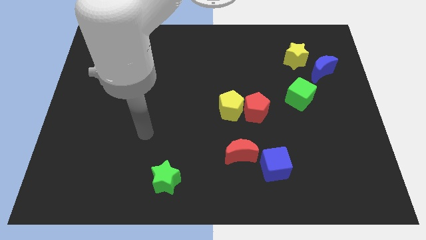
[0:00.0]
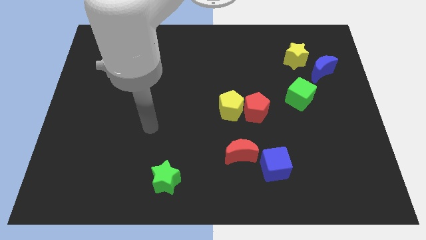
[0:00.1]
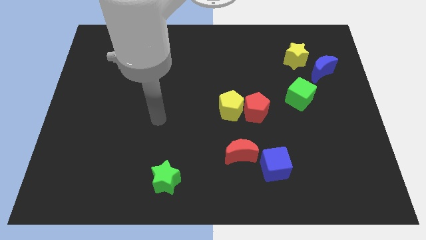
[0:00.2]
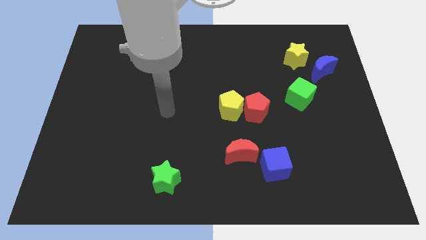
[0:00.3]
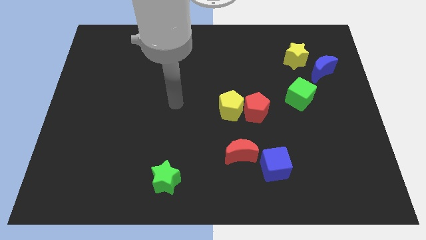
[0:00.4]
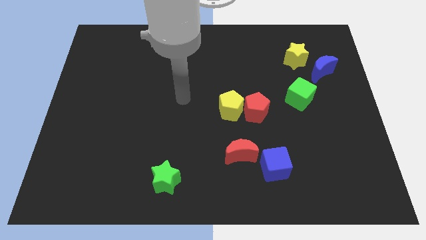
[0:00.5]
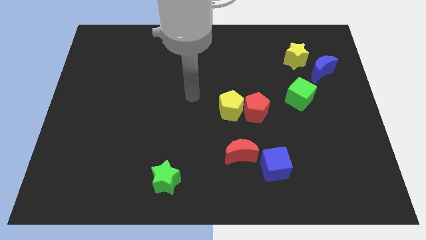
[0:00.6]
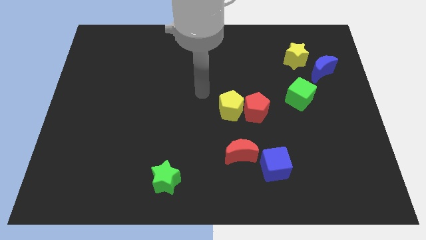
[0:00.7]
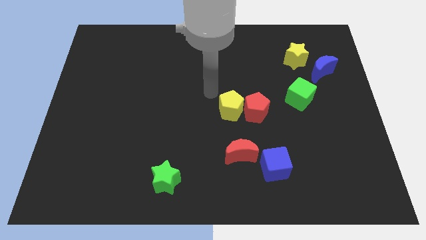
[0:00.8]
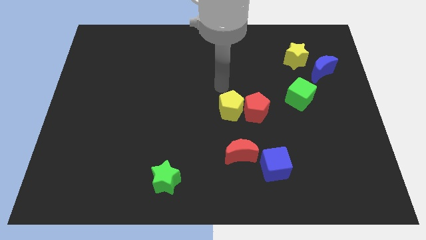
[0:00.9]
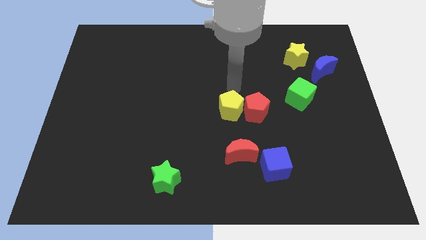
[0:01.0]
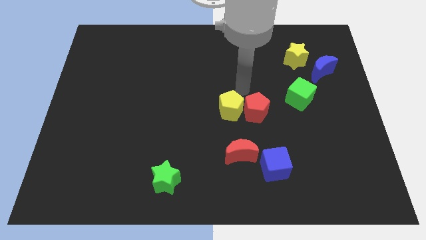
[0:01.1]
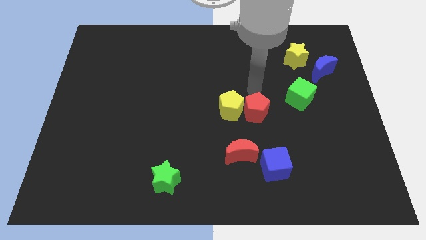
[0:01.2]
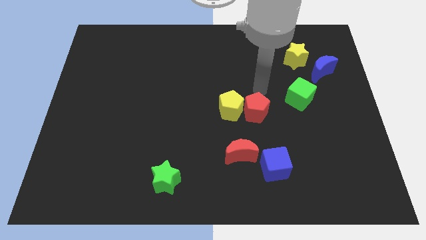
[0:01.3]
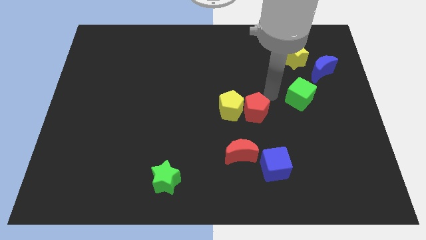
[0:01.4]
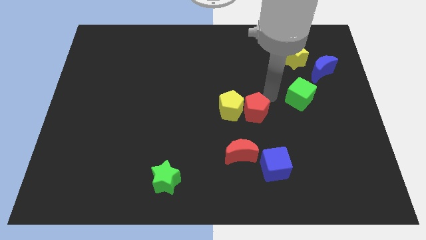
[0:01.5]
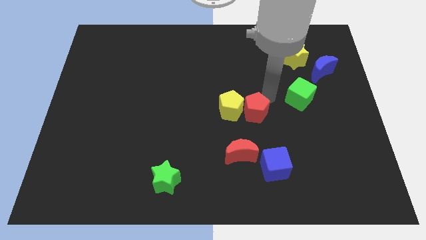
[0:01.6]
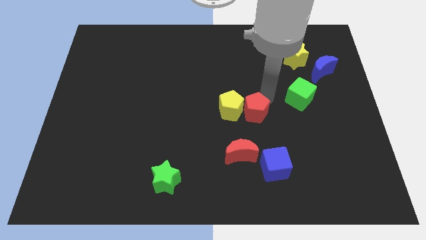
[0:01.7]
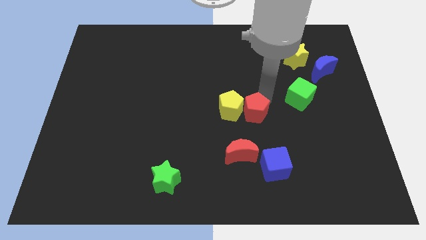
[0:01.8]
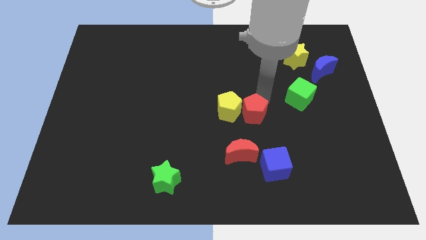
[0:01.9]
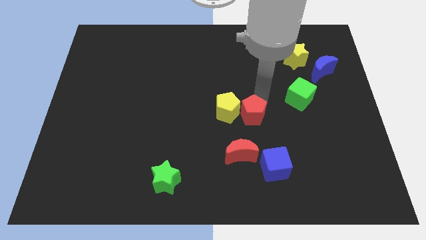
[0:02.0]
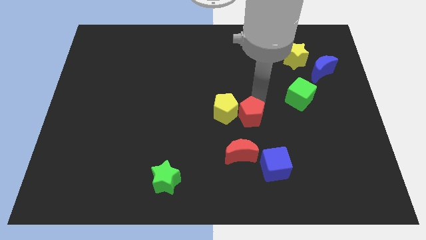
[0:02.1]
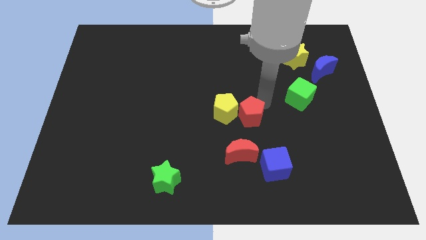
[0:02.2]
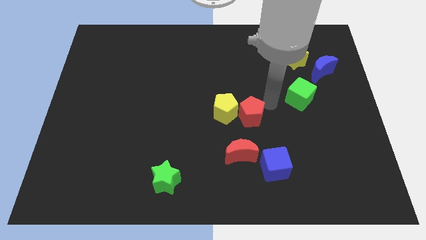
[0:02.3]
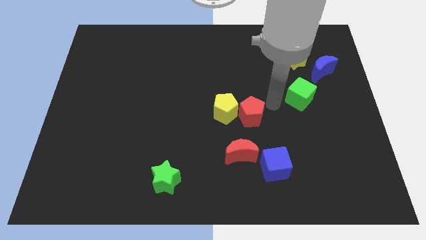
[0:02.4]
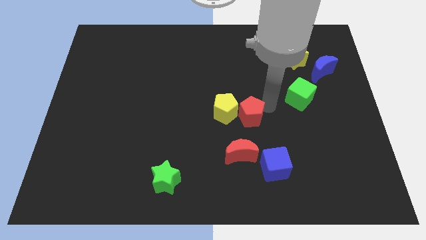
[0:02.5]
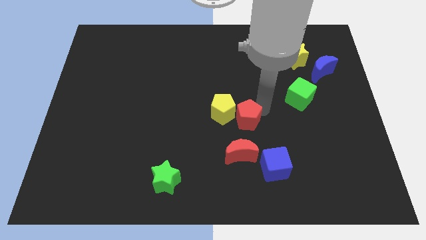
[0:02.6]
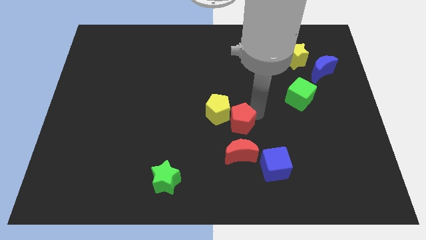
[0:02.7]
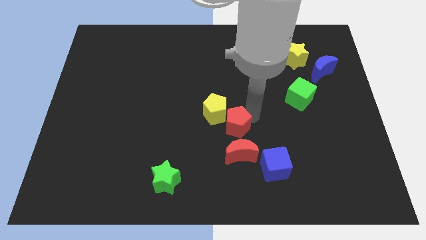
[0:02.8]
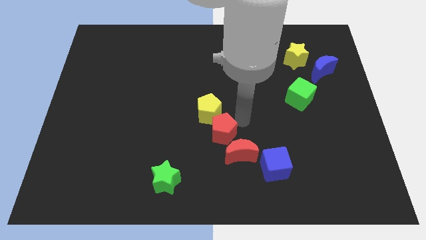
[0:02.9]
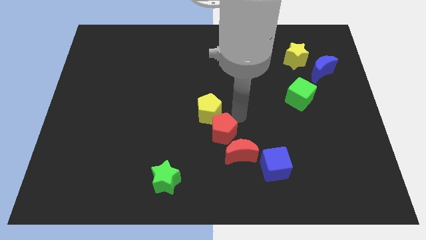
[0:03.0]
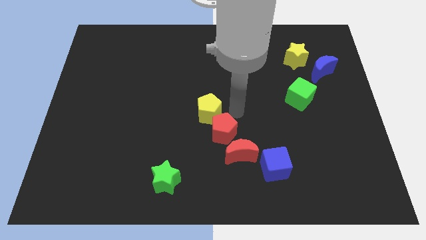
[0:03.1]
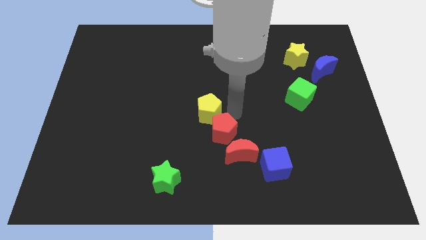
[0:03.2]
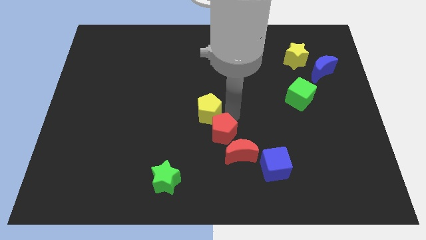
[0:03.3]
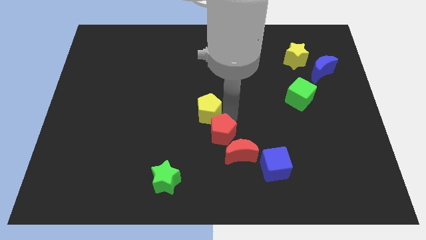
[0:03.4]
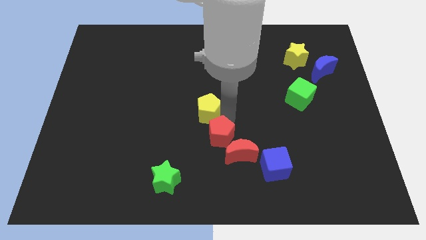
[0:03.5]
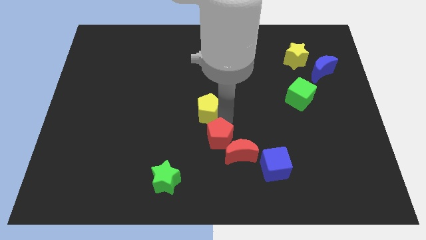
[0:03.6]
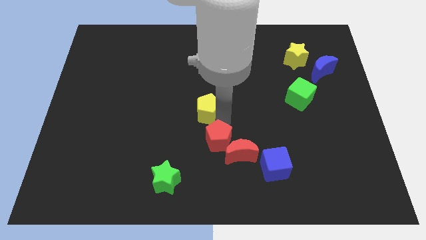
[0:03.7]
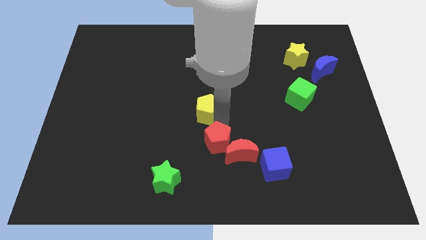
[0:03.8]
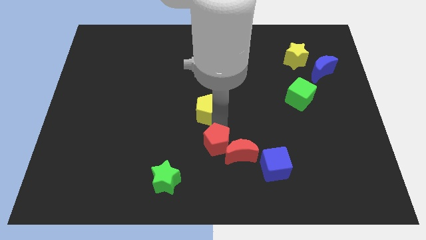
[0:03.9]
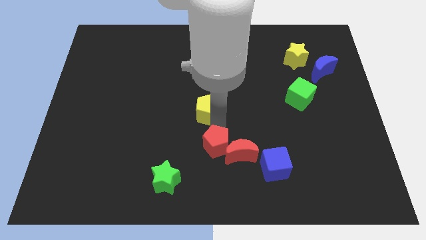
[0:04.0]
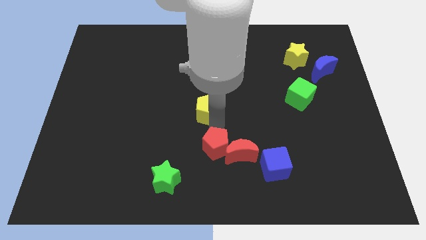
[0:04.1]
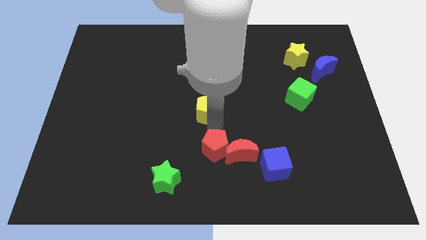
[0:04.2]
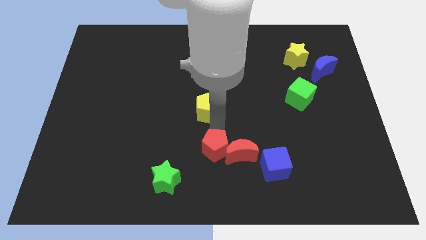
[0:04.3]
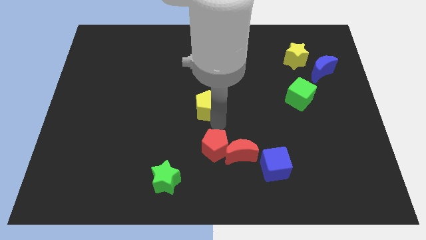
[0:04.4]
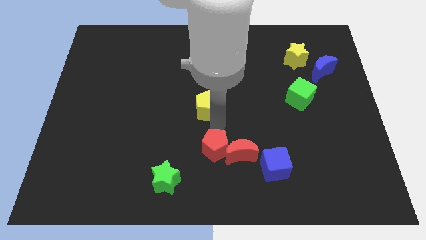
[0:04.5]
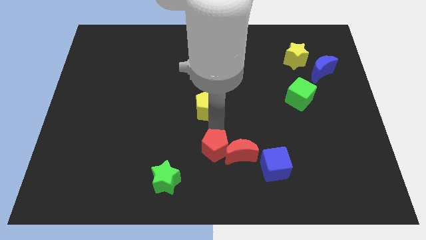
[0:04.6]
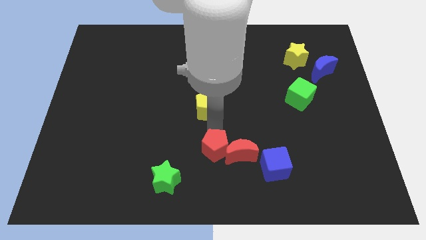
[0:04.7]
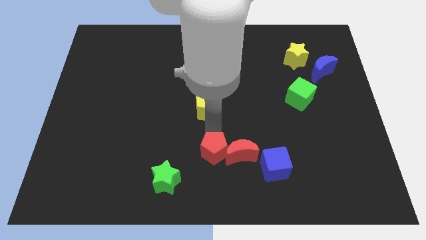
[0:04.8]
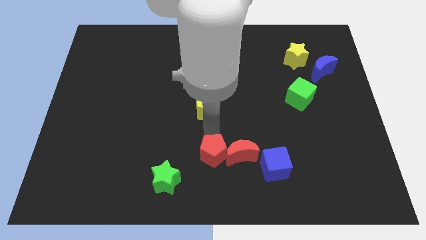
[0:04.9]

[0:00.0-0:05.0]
push the red pentagon to the bottom
